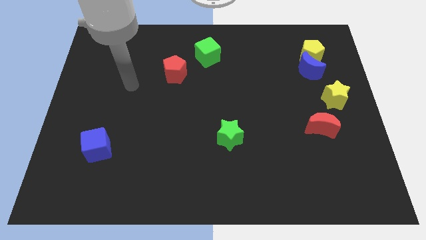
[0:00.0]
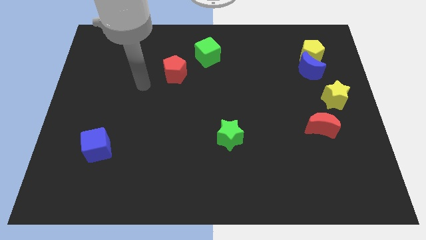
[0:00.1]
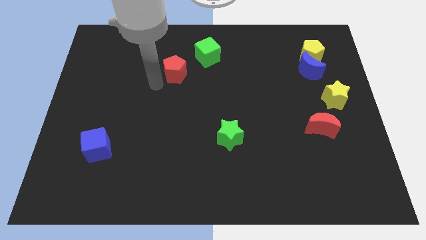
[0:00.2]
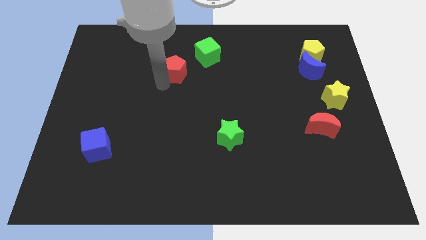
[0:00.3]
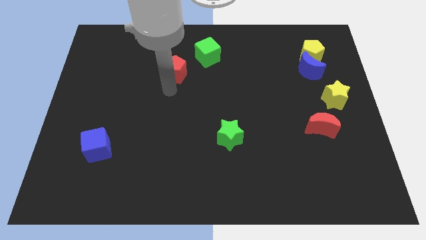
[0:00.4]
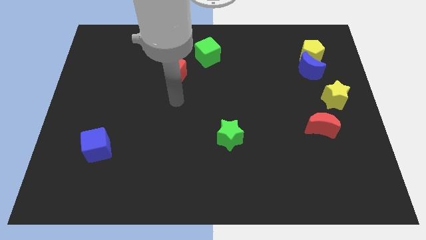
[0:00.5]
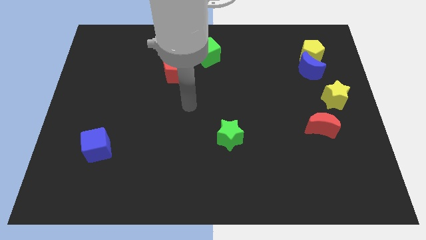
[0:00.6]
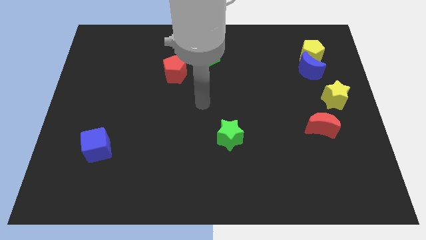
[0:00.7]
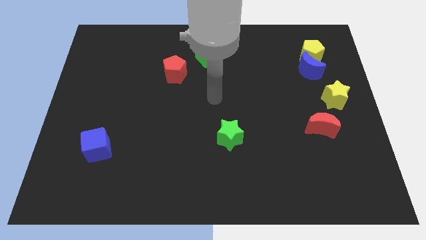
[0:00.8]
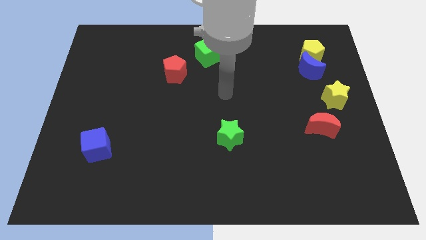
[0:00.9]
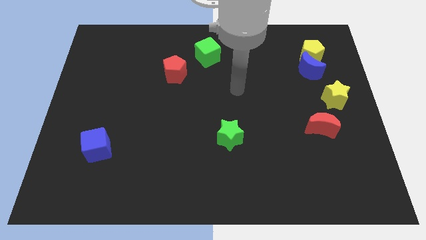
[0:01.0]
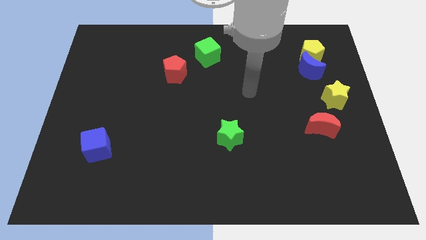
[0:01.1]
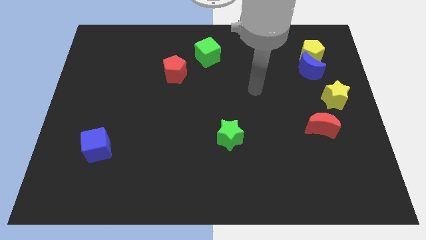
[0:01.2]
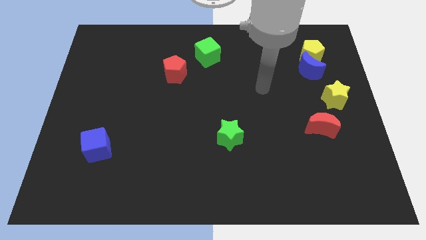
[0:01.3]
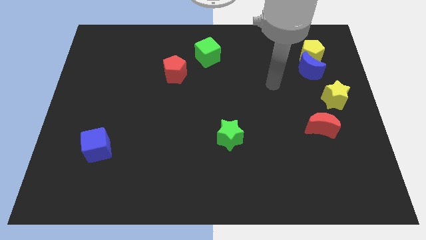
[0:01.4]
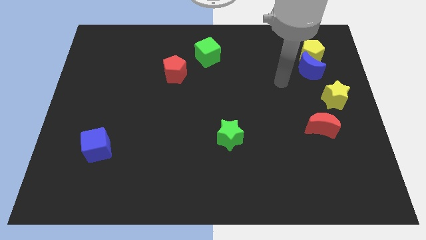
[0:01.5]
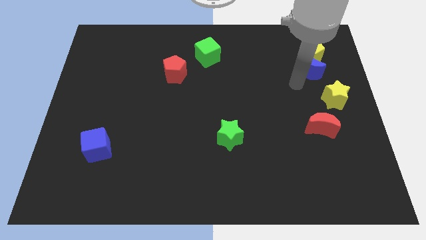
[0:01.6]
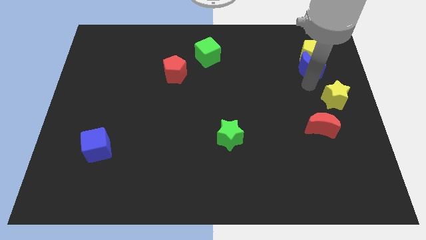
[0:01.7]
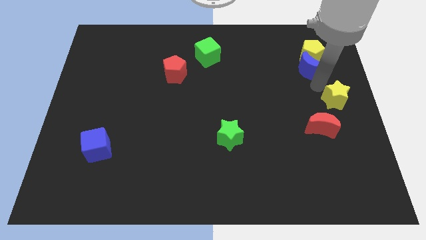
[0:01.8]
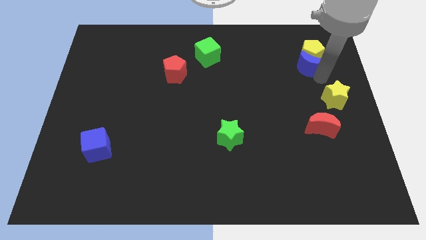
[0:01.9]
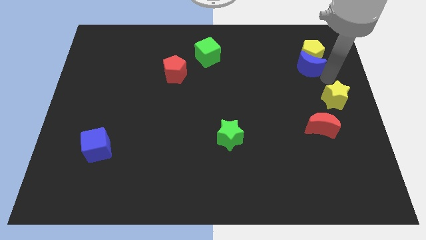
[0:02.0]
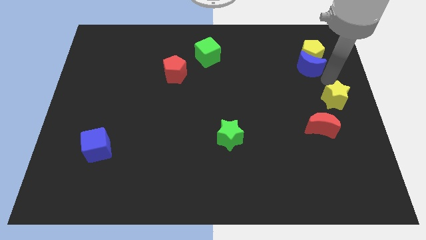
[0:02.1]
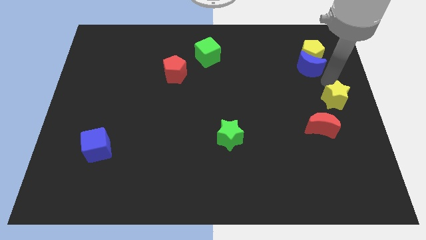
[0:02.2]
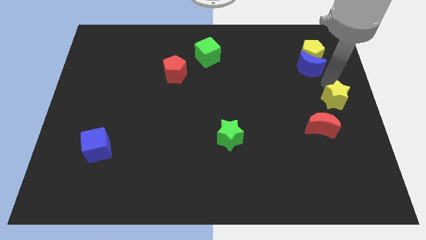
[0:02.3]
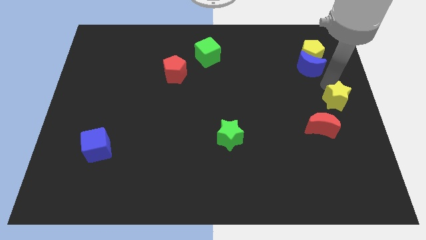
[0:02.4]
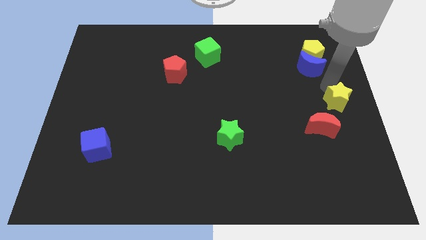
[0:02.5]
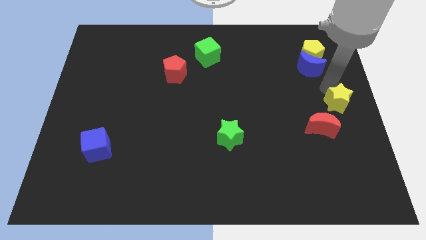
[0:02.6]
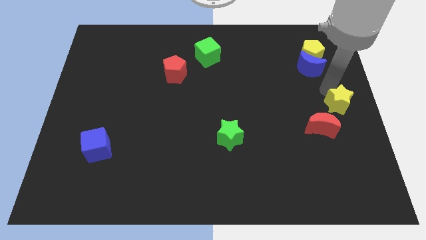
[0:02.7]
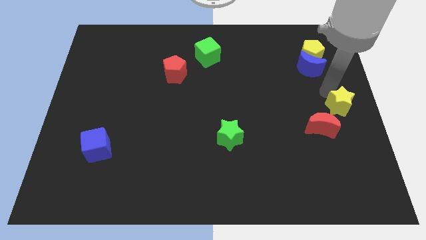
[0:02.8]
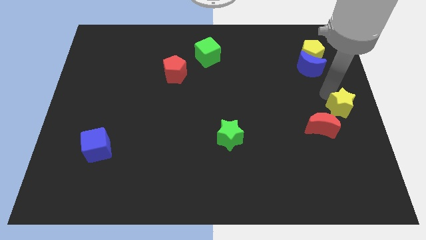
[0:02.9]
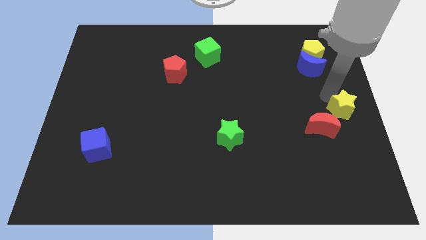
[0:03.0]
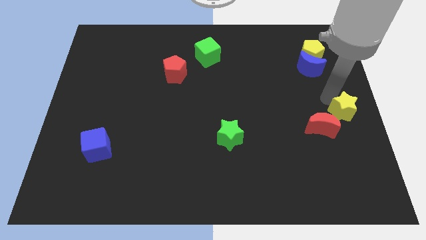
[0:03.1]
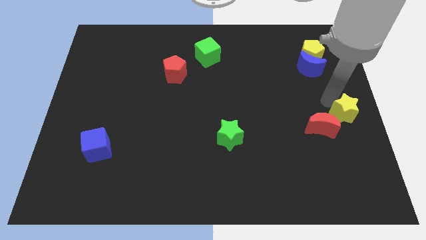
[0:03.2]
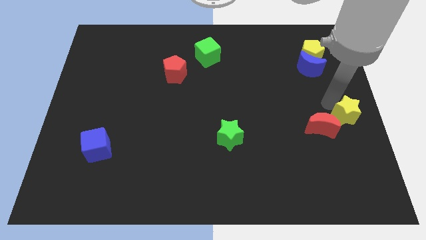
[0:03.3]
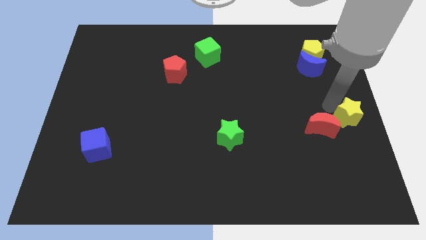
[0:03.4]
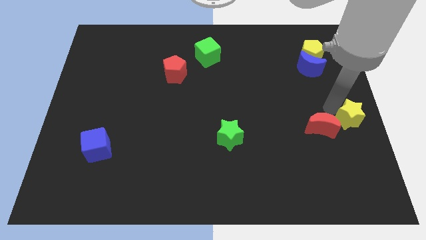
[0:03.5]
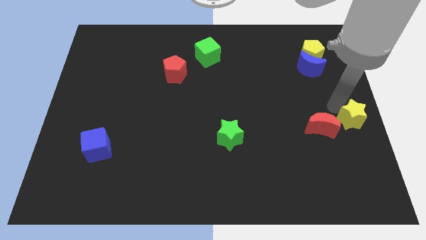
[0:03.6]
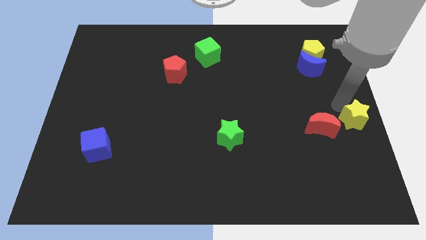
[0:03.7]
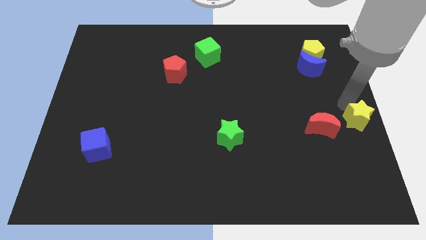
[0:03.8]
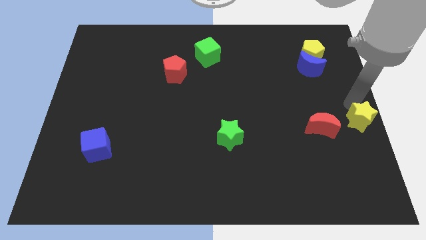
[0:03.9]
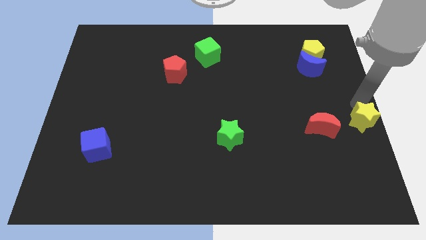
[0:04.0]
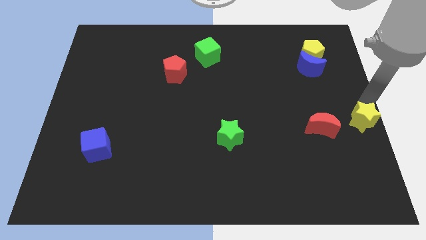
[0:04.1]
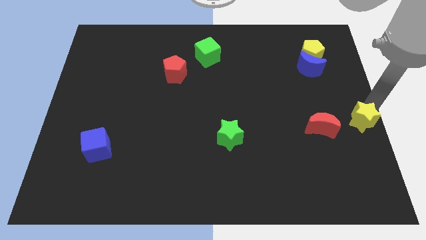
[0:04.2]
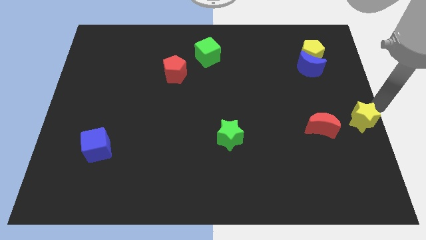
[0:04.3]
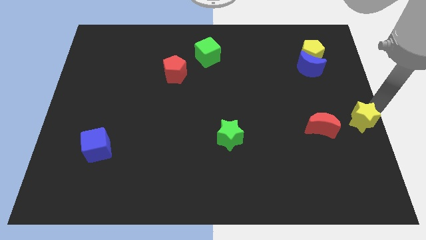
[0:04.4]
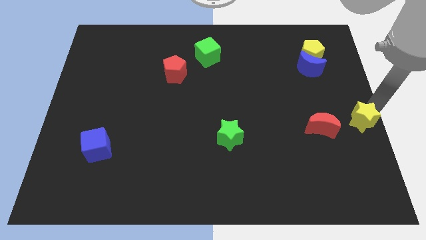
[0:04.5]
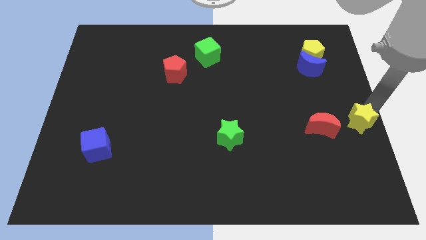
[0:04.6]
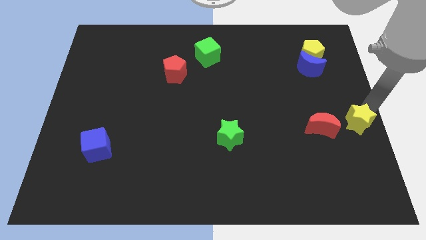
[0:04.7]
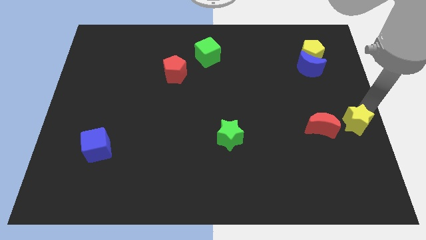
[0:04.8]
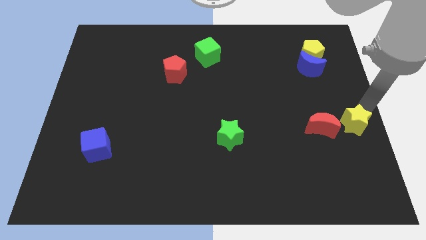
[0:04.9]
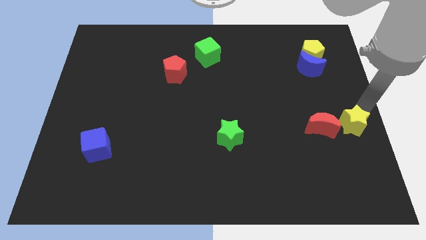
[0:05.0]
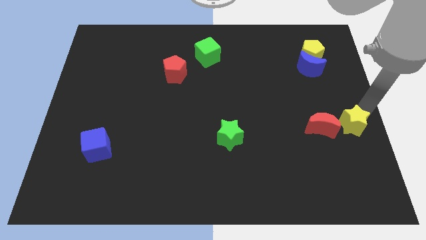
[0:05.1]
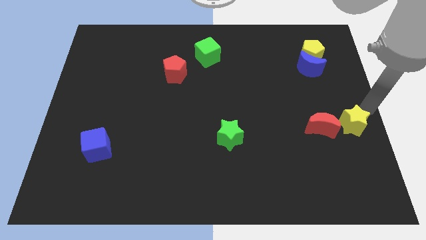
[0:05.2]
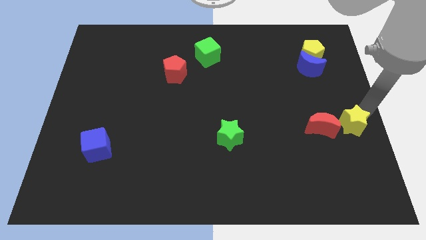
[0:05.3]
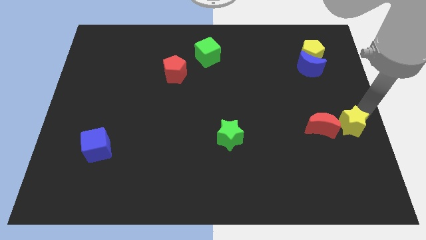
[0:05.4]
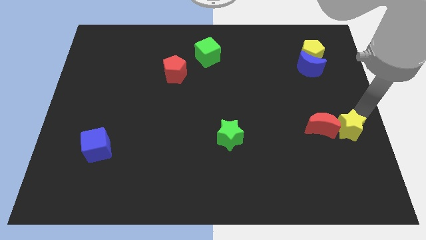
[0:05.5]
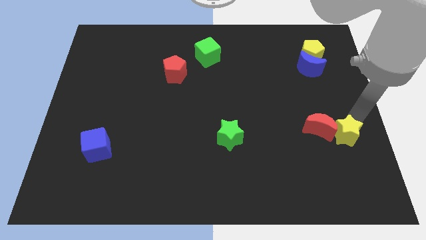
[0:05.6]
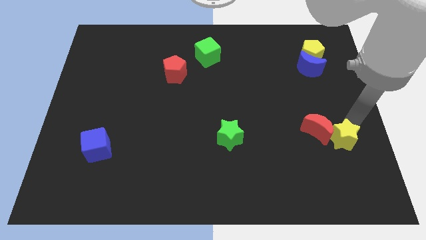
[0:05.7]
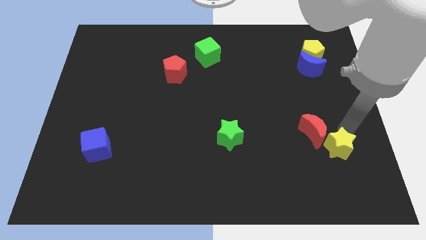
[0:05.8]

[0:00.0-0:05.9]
move the yellow star to the bottom side of the red moon

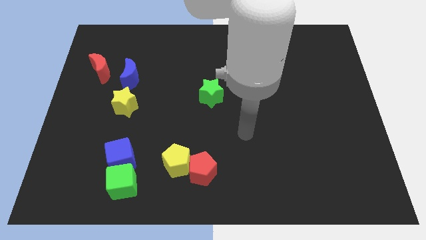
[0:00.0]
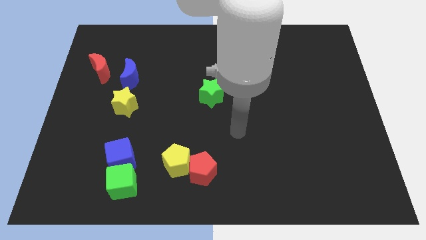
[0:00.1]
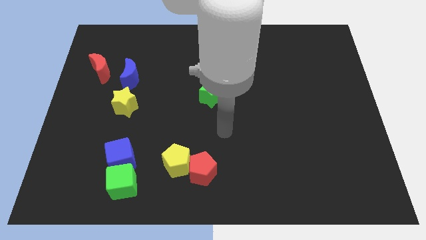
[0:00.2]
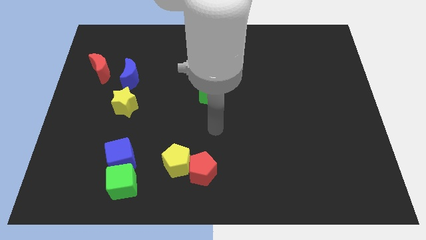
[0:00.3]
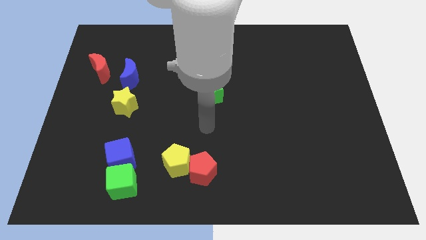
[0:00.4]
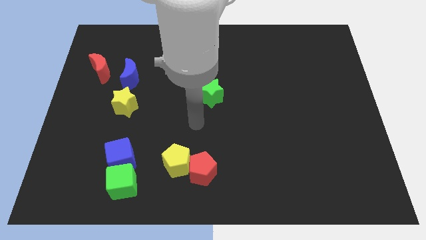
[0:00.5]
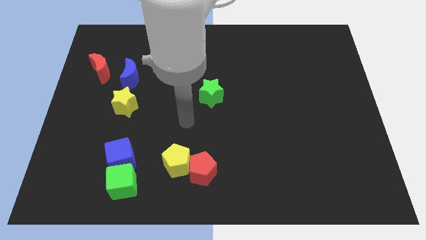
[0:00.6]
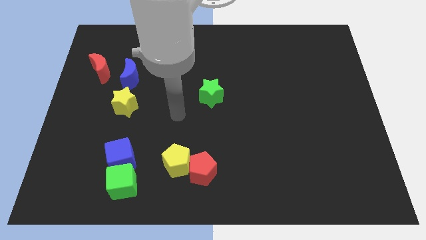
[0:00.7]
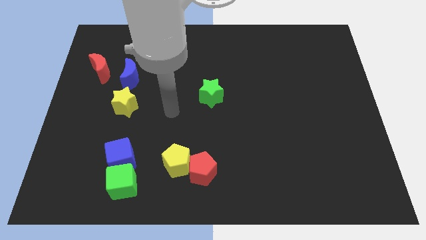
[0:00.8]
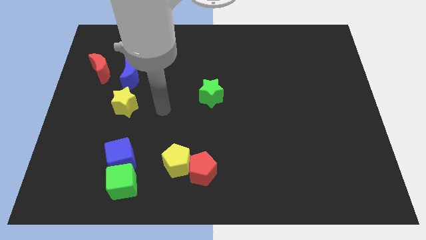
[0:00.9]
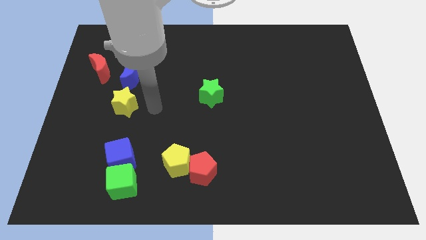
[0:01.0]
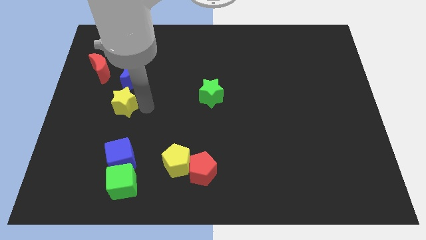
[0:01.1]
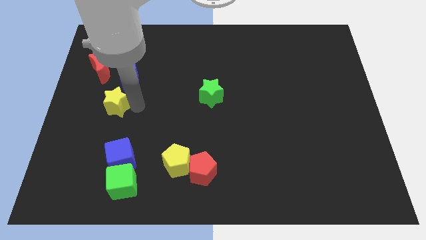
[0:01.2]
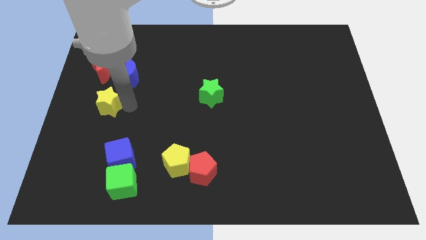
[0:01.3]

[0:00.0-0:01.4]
put the yellow star to the bottom of the red moon
